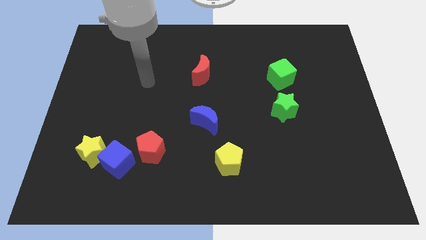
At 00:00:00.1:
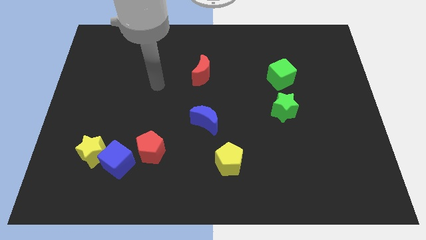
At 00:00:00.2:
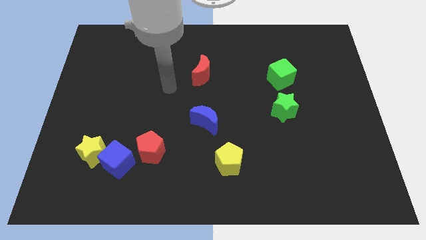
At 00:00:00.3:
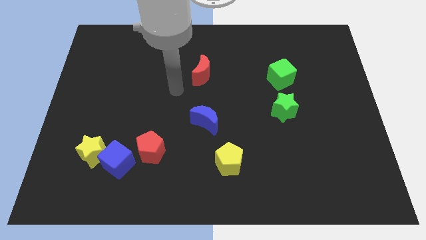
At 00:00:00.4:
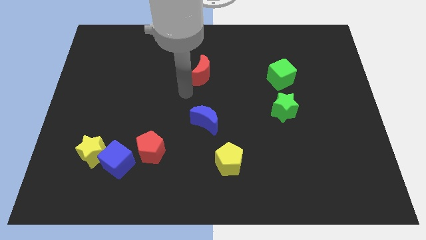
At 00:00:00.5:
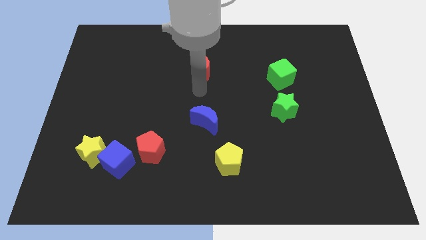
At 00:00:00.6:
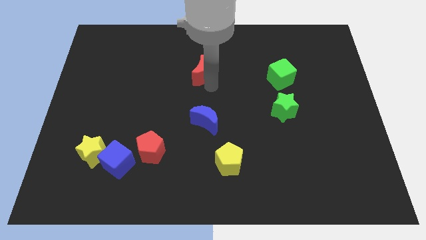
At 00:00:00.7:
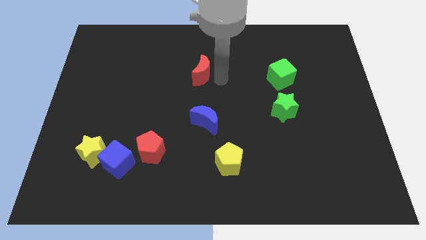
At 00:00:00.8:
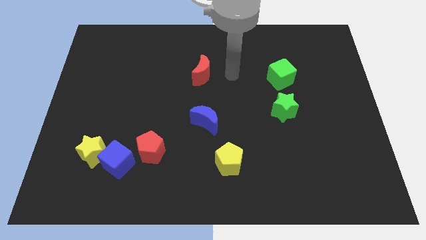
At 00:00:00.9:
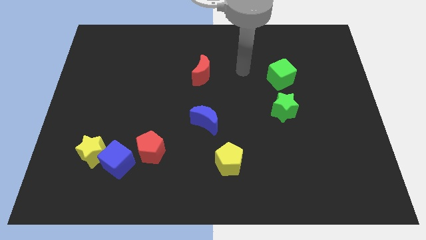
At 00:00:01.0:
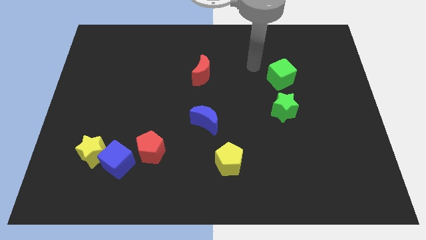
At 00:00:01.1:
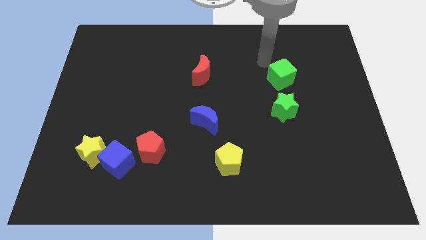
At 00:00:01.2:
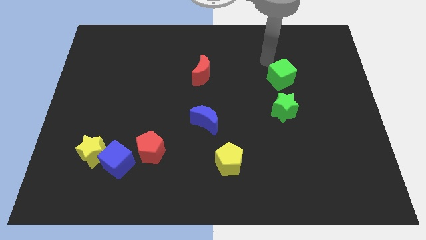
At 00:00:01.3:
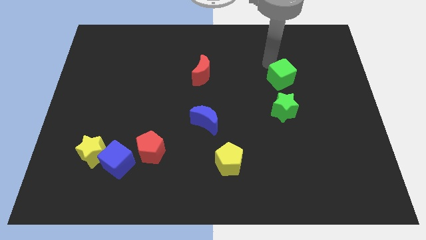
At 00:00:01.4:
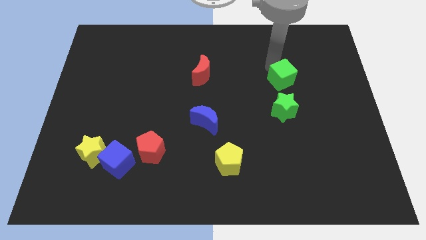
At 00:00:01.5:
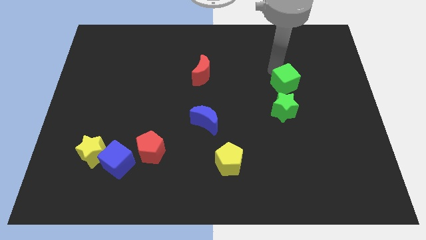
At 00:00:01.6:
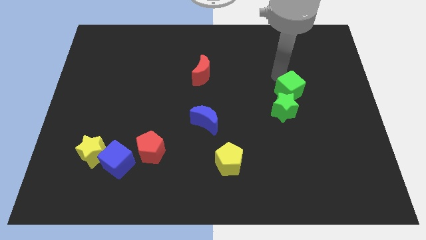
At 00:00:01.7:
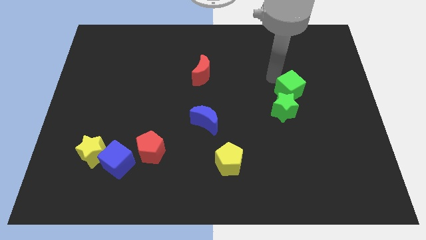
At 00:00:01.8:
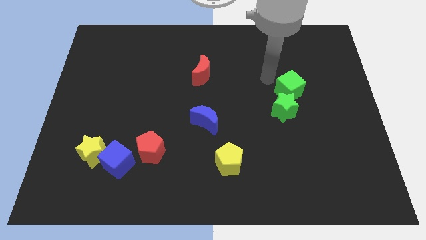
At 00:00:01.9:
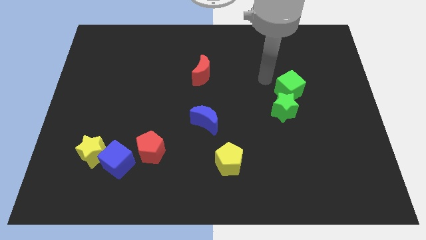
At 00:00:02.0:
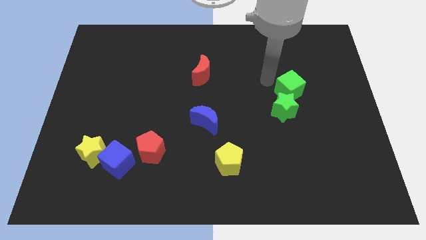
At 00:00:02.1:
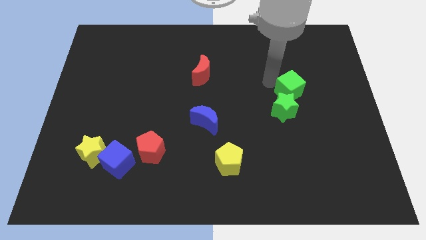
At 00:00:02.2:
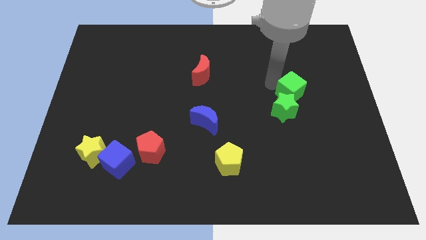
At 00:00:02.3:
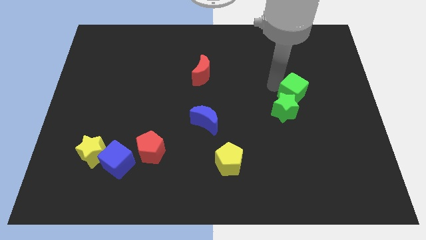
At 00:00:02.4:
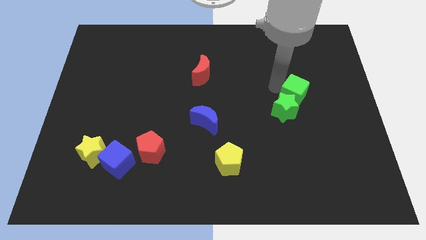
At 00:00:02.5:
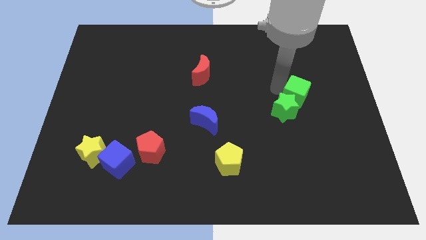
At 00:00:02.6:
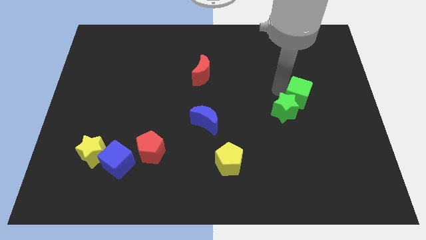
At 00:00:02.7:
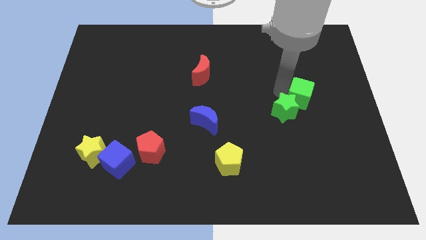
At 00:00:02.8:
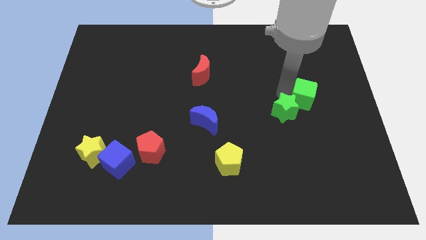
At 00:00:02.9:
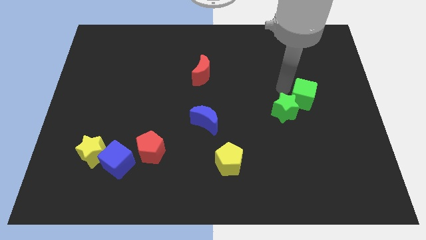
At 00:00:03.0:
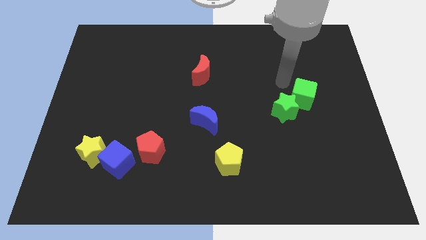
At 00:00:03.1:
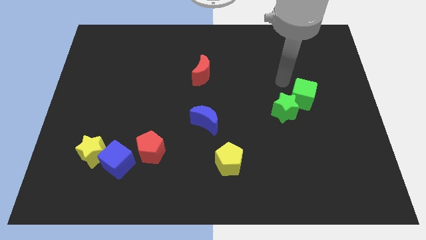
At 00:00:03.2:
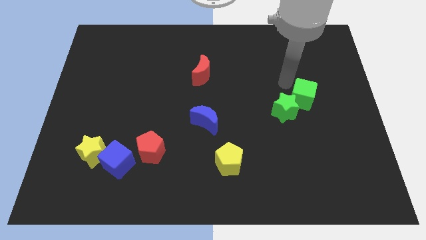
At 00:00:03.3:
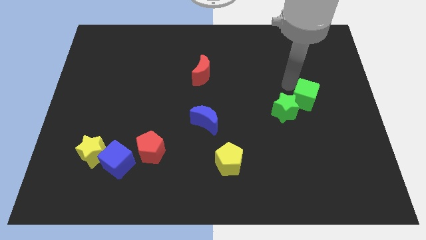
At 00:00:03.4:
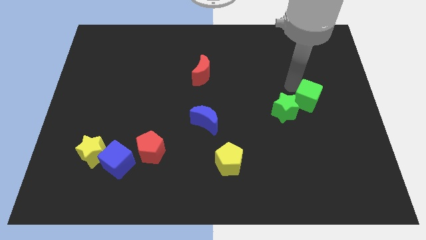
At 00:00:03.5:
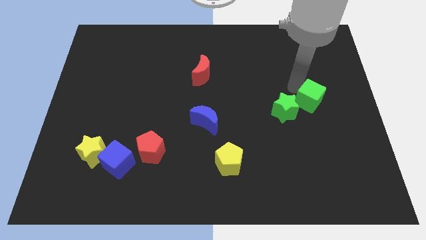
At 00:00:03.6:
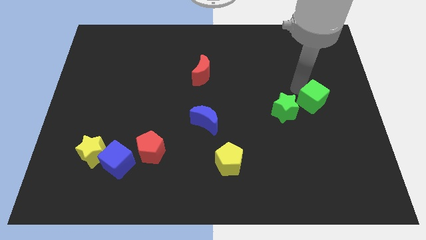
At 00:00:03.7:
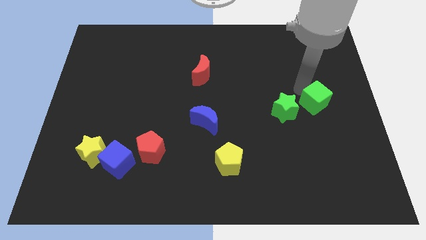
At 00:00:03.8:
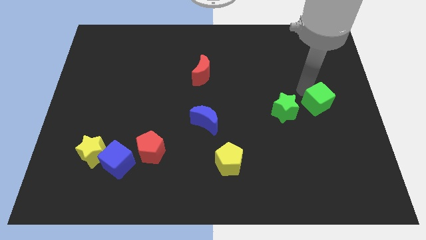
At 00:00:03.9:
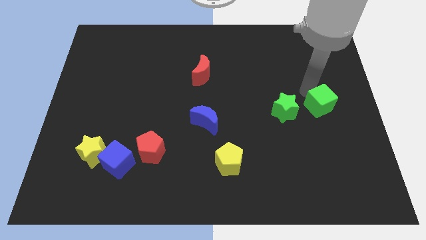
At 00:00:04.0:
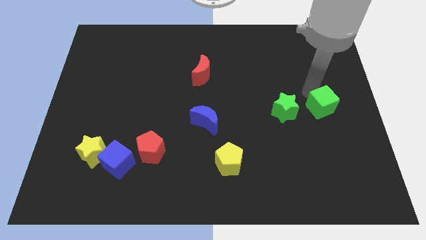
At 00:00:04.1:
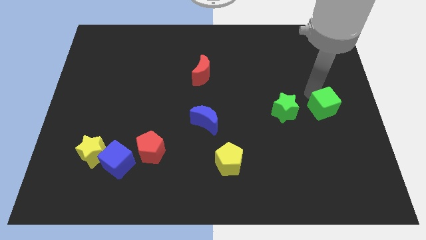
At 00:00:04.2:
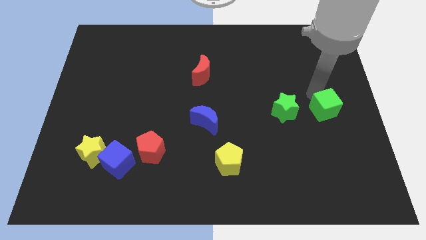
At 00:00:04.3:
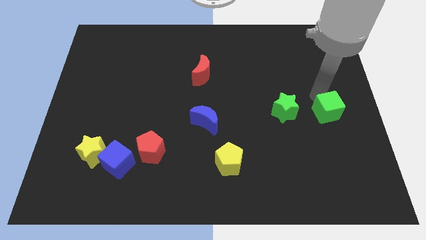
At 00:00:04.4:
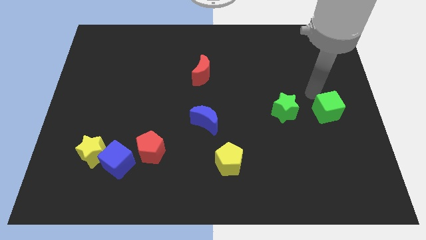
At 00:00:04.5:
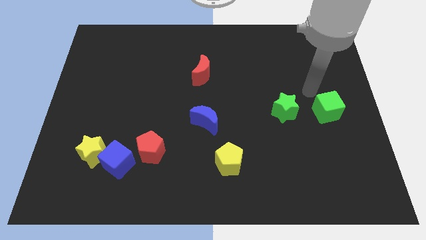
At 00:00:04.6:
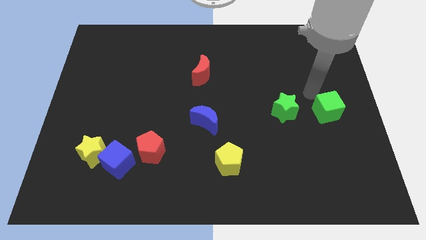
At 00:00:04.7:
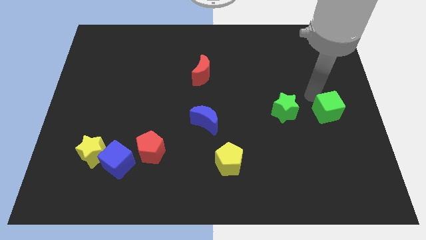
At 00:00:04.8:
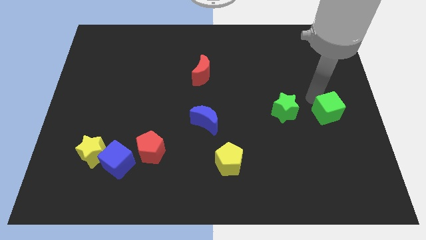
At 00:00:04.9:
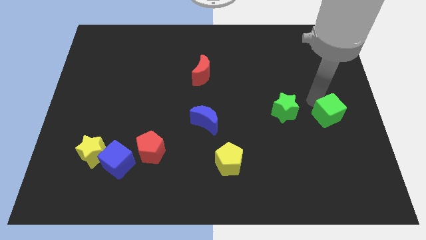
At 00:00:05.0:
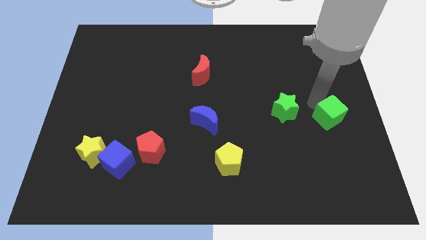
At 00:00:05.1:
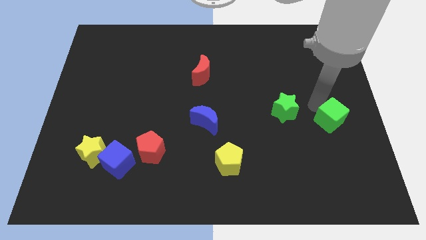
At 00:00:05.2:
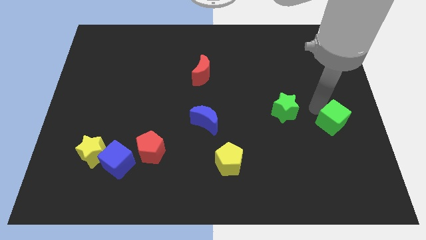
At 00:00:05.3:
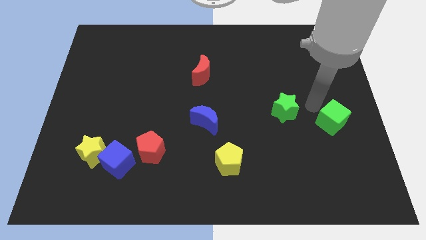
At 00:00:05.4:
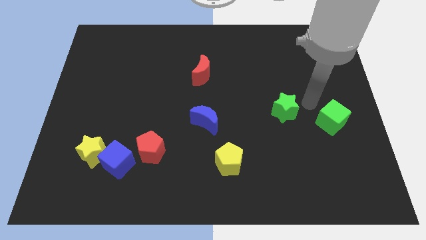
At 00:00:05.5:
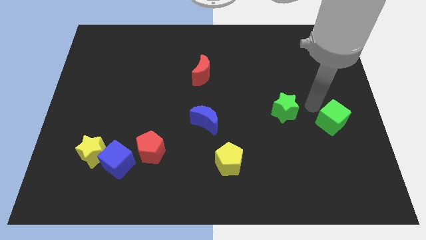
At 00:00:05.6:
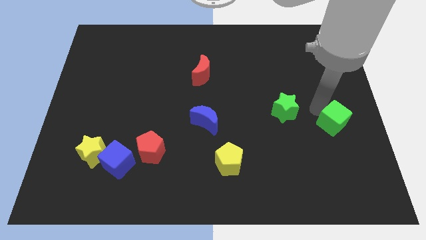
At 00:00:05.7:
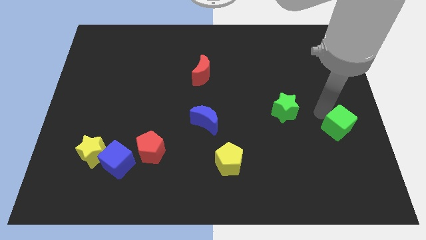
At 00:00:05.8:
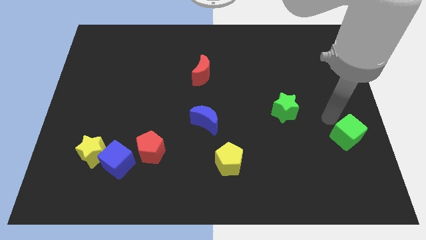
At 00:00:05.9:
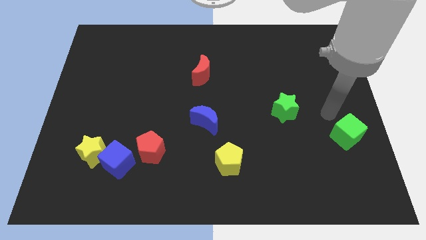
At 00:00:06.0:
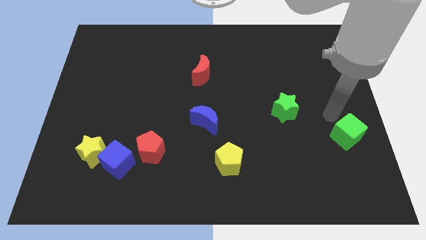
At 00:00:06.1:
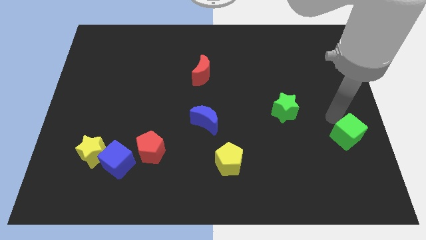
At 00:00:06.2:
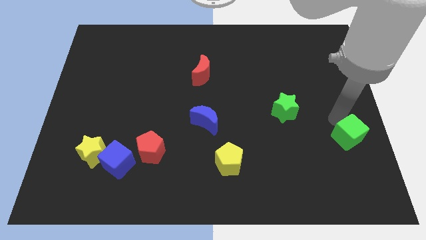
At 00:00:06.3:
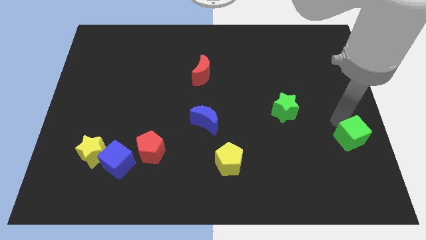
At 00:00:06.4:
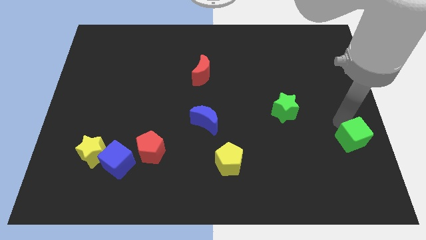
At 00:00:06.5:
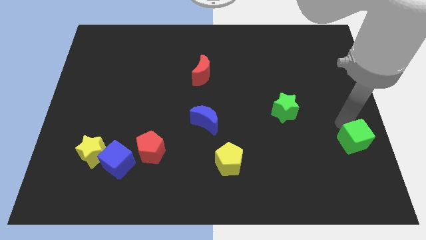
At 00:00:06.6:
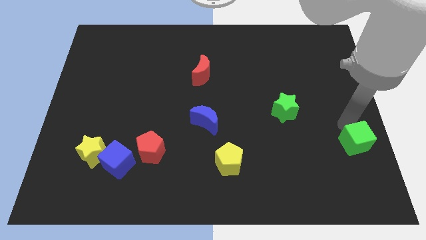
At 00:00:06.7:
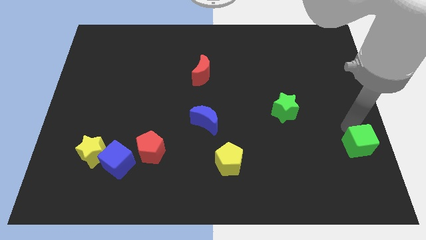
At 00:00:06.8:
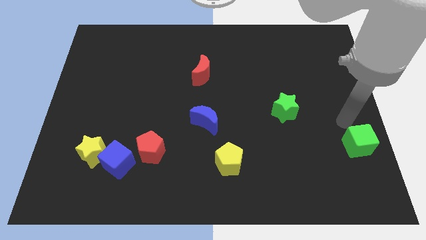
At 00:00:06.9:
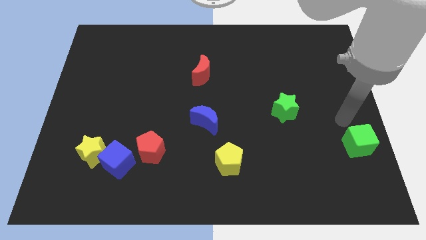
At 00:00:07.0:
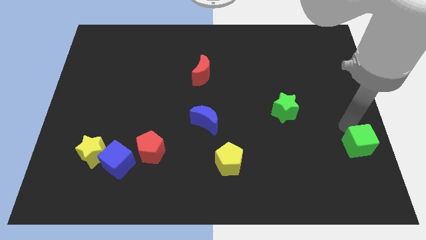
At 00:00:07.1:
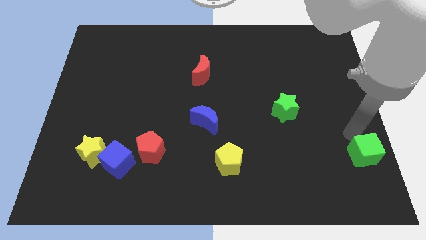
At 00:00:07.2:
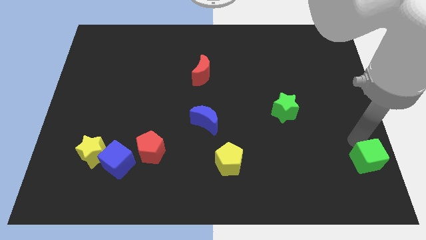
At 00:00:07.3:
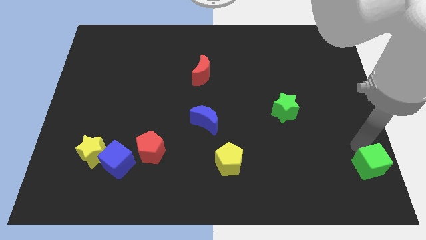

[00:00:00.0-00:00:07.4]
slide the green cube to the bottom right of the board
